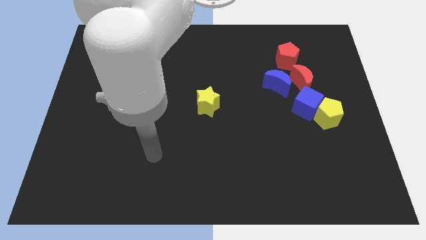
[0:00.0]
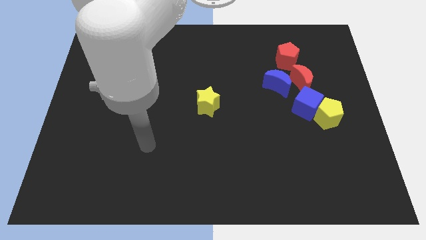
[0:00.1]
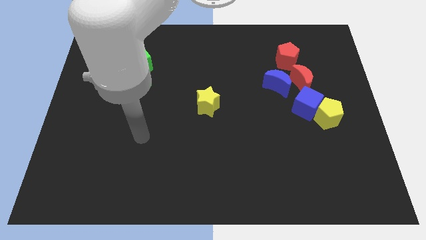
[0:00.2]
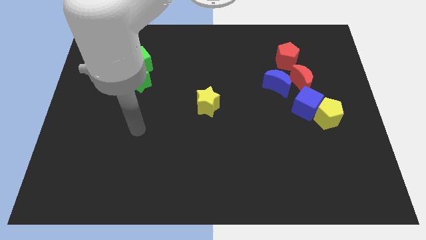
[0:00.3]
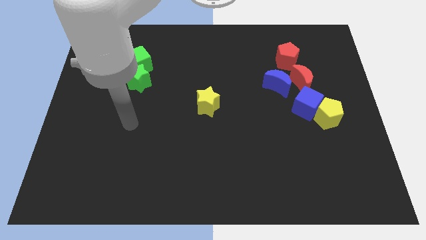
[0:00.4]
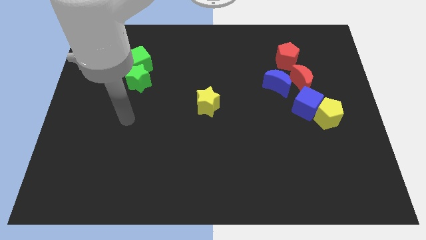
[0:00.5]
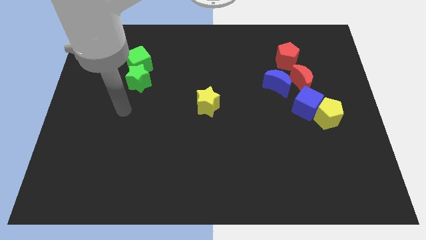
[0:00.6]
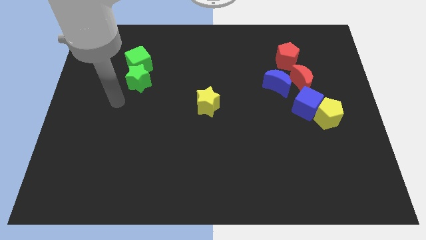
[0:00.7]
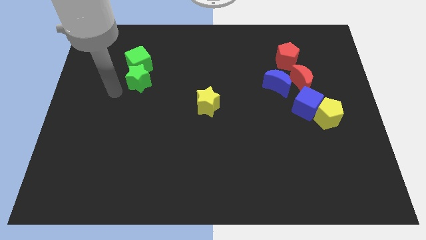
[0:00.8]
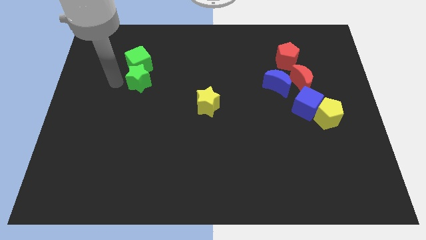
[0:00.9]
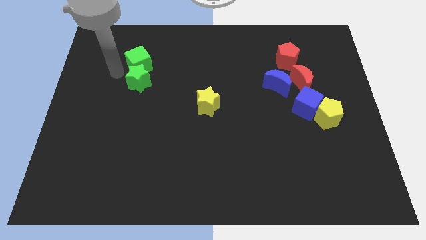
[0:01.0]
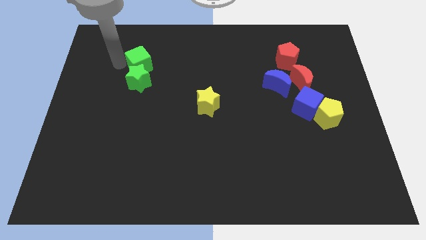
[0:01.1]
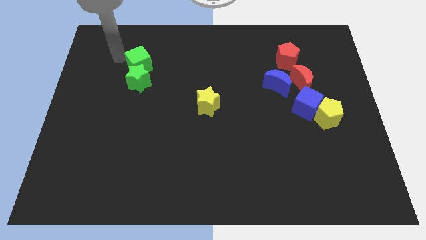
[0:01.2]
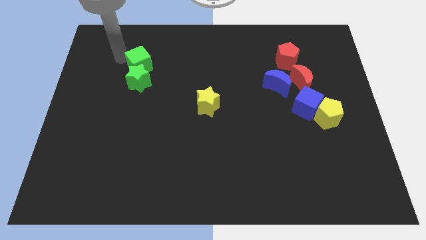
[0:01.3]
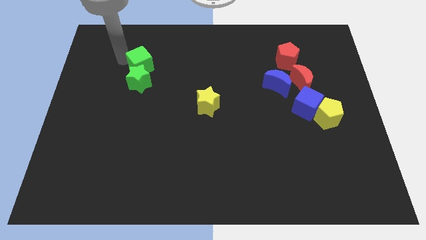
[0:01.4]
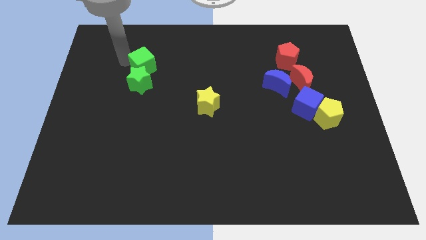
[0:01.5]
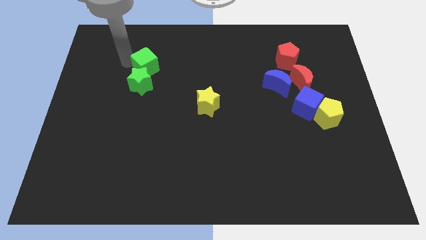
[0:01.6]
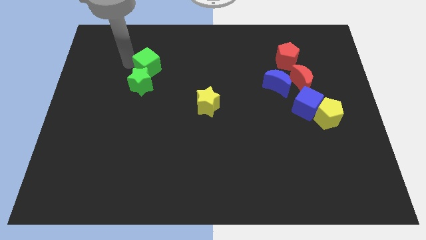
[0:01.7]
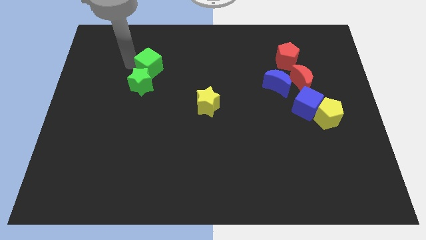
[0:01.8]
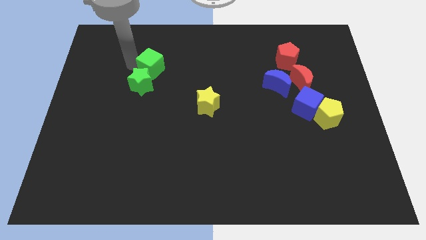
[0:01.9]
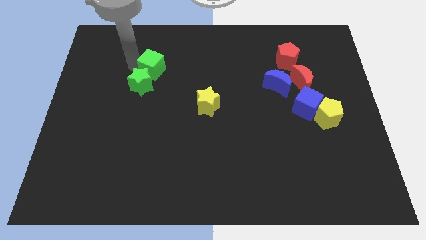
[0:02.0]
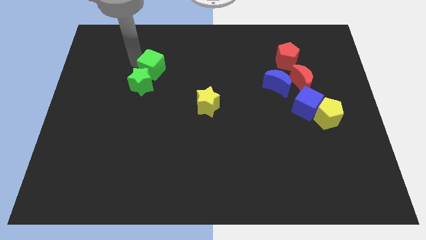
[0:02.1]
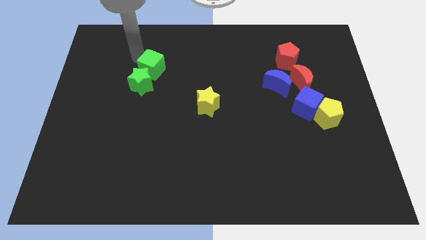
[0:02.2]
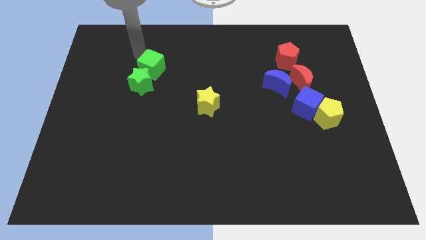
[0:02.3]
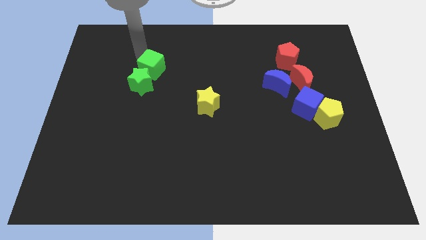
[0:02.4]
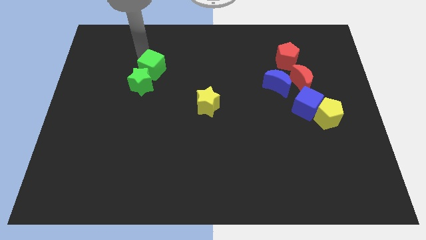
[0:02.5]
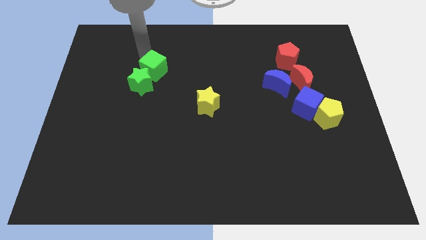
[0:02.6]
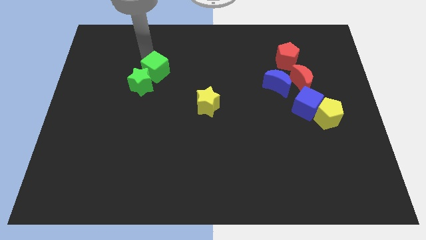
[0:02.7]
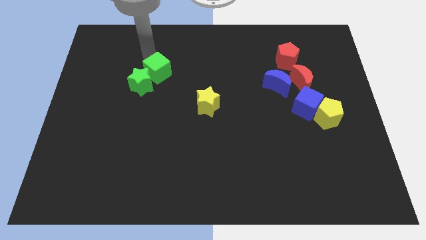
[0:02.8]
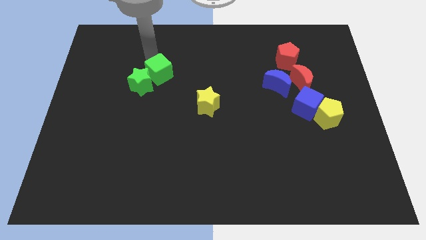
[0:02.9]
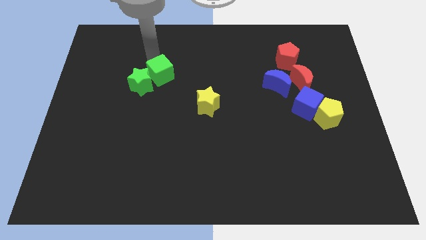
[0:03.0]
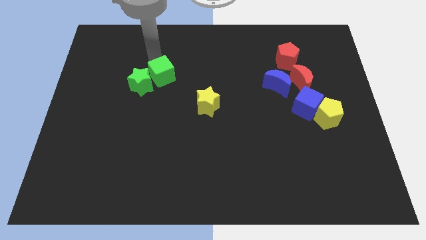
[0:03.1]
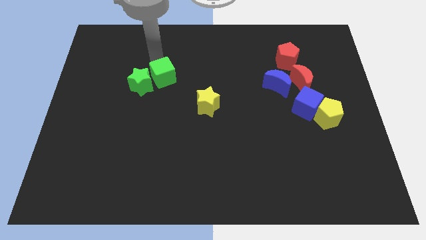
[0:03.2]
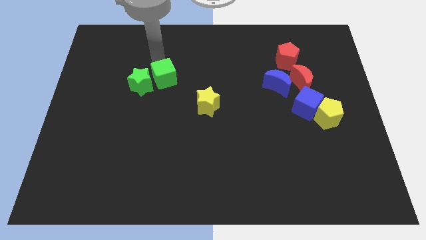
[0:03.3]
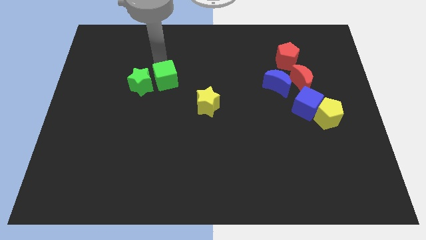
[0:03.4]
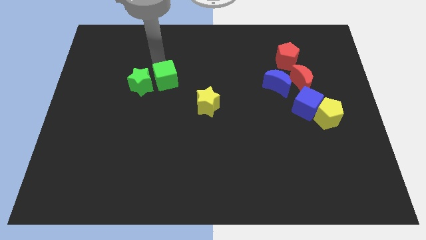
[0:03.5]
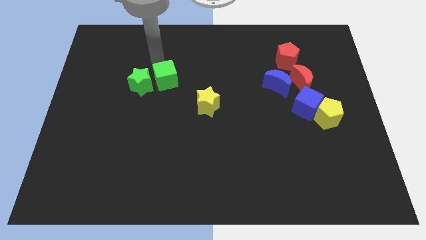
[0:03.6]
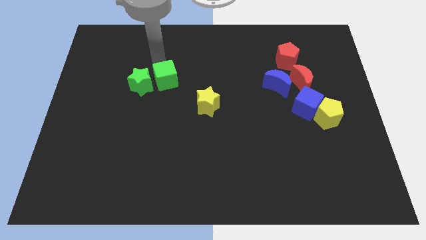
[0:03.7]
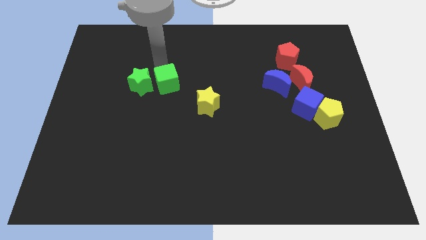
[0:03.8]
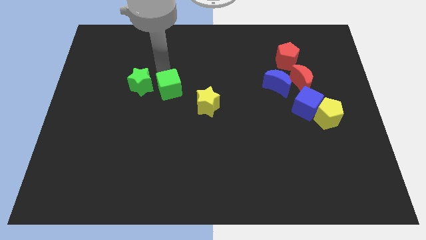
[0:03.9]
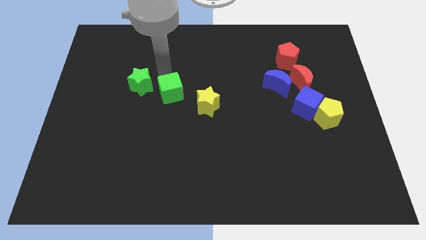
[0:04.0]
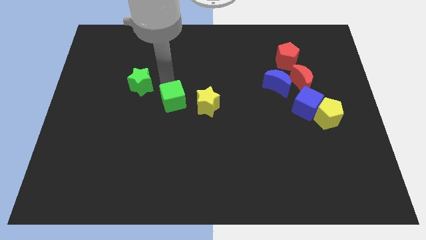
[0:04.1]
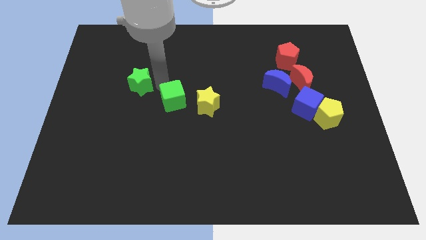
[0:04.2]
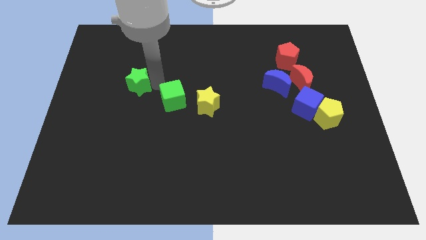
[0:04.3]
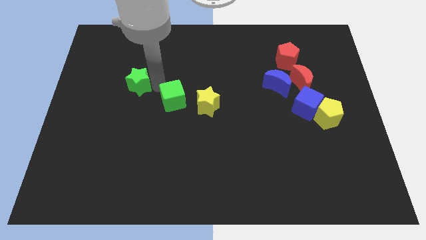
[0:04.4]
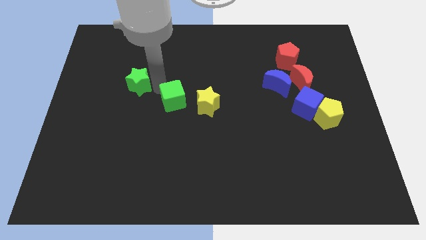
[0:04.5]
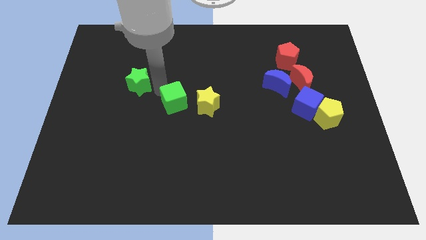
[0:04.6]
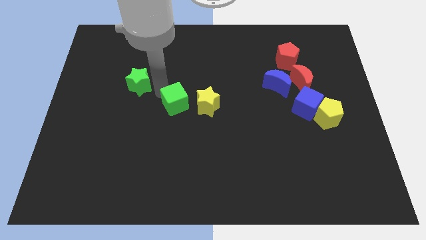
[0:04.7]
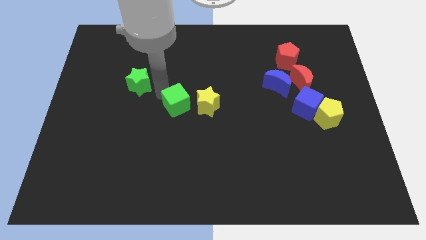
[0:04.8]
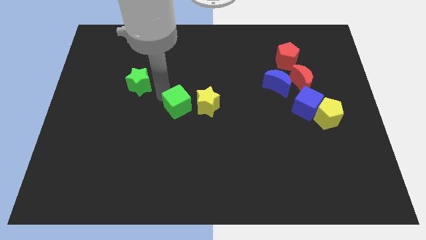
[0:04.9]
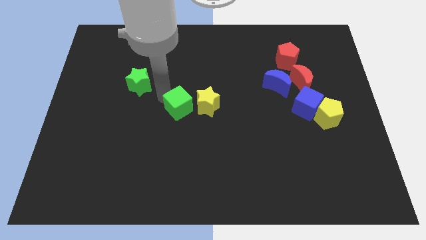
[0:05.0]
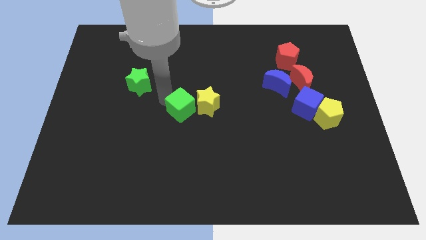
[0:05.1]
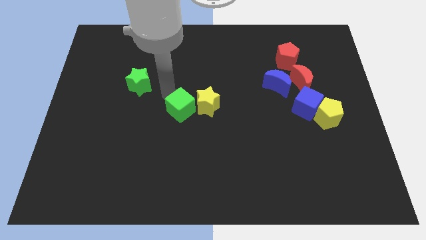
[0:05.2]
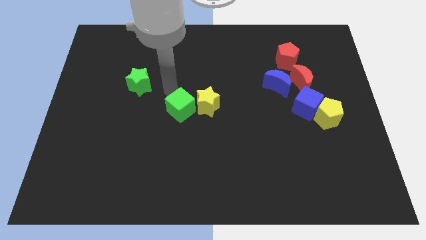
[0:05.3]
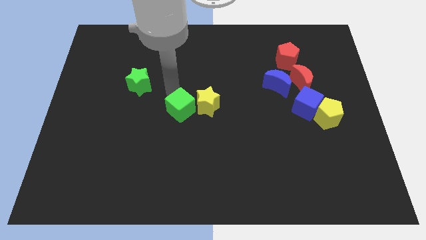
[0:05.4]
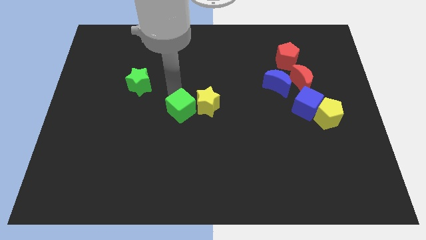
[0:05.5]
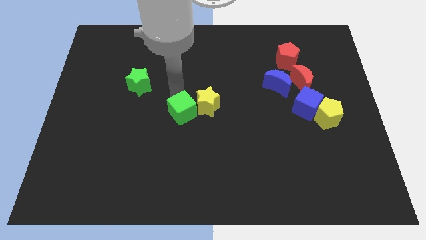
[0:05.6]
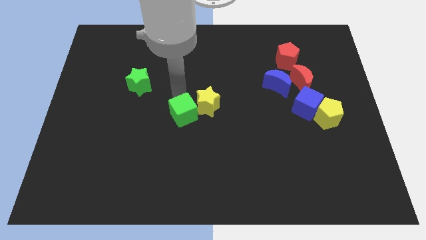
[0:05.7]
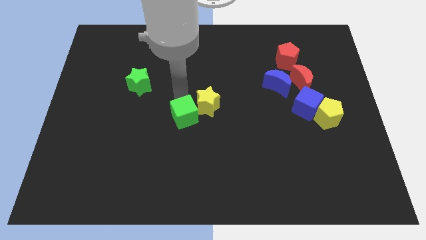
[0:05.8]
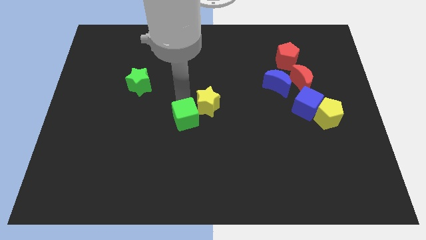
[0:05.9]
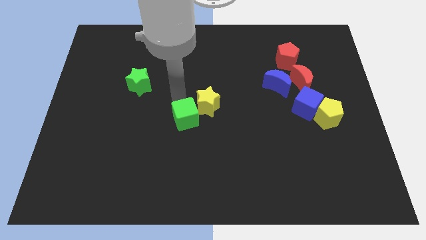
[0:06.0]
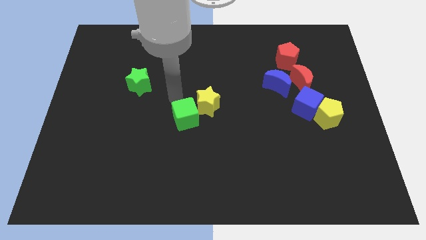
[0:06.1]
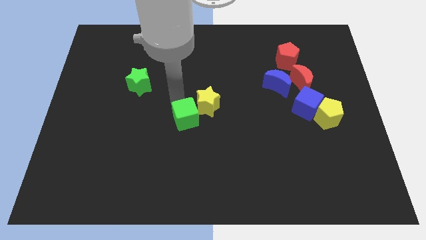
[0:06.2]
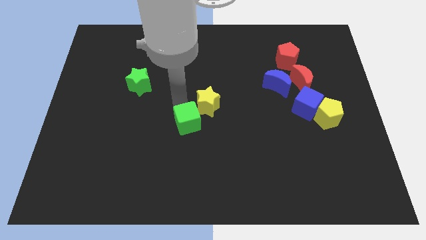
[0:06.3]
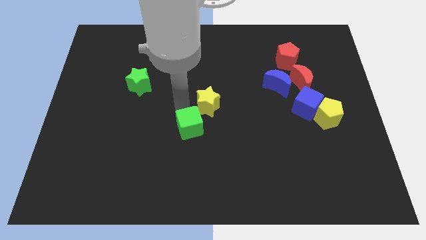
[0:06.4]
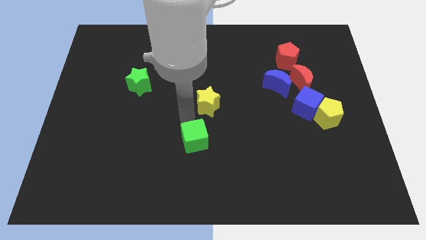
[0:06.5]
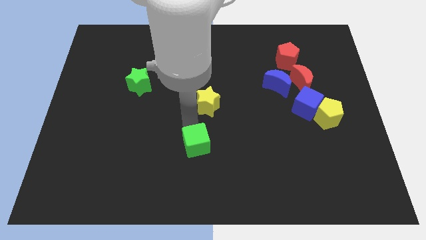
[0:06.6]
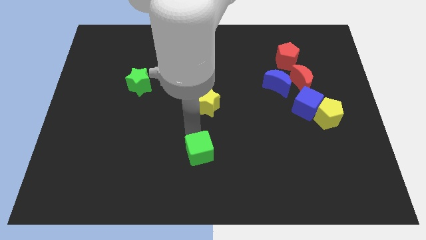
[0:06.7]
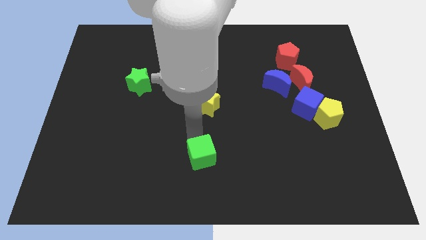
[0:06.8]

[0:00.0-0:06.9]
push the green cube to the bottom side
